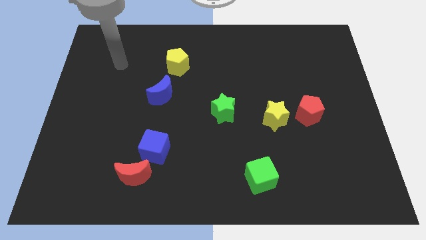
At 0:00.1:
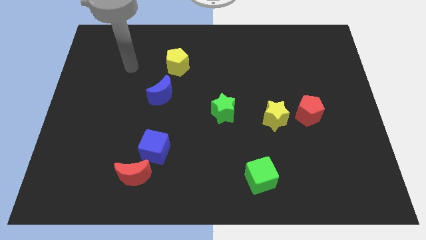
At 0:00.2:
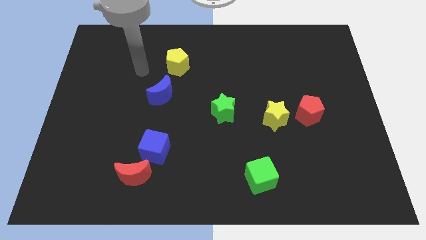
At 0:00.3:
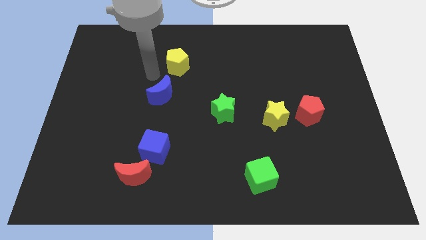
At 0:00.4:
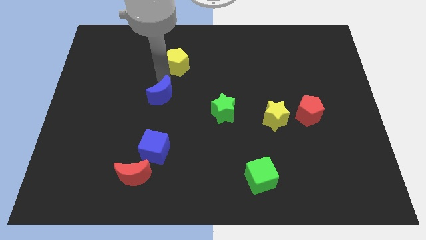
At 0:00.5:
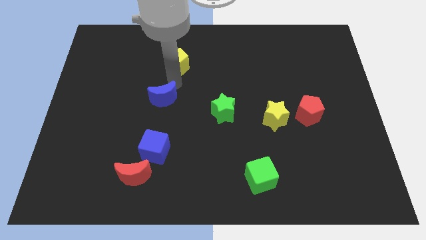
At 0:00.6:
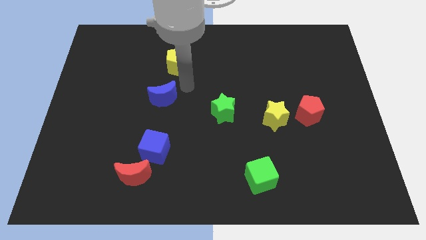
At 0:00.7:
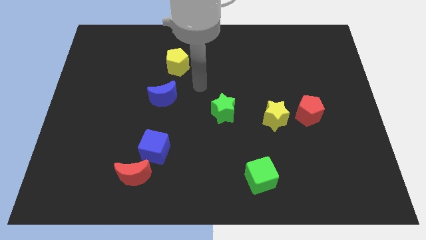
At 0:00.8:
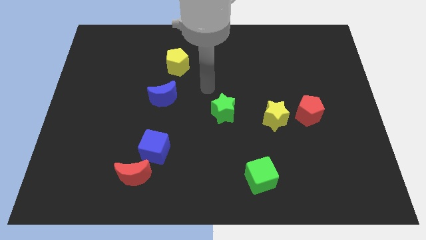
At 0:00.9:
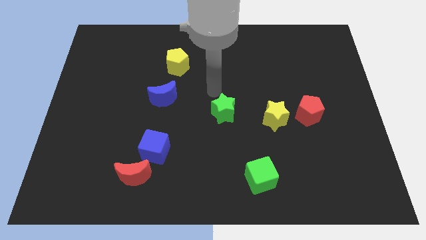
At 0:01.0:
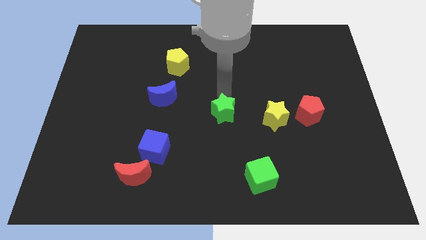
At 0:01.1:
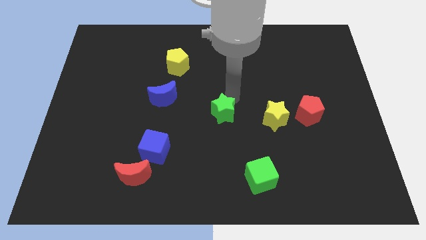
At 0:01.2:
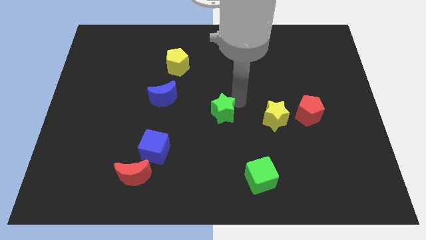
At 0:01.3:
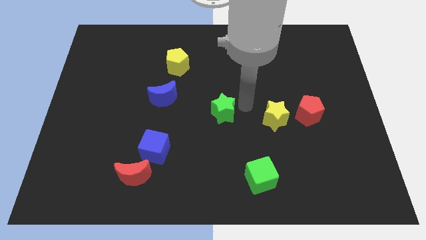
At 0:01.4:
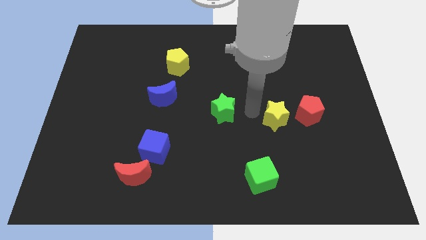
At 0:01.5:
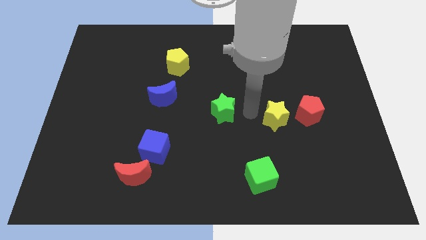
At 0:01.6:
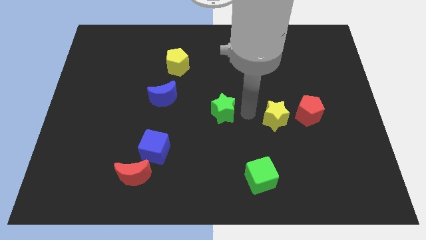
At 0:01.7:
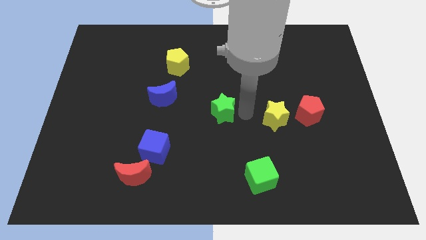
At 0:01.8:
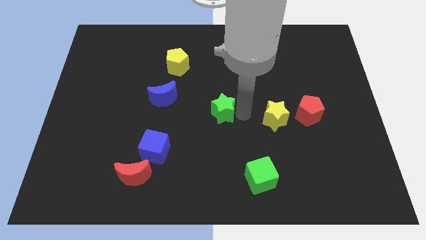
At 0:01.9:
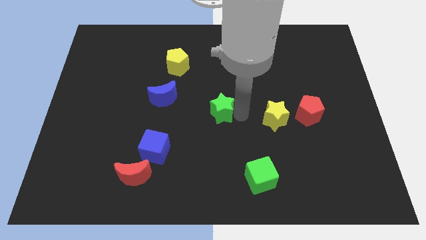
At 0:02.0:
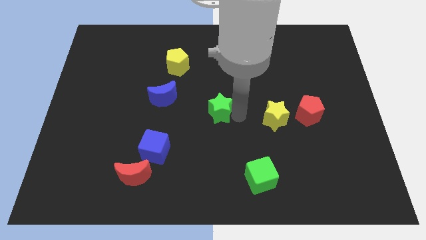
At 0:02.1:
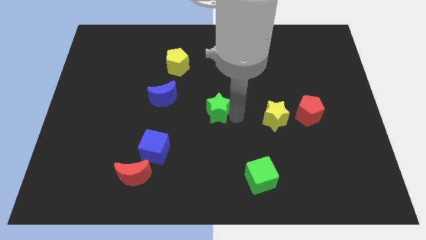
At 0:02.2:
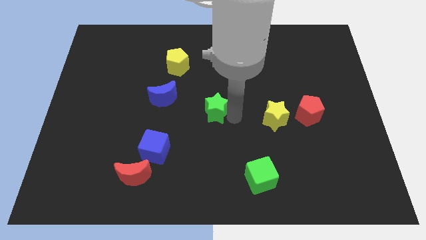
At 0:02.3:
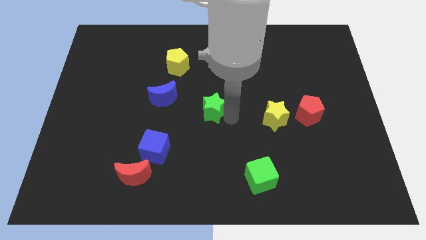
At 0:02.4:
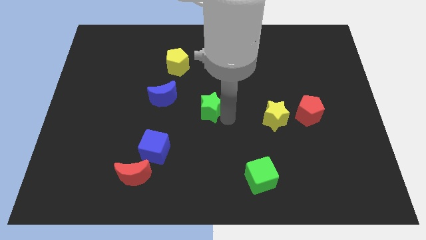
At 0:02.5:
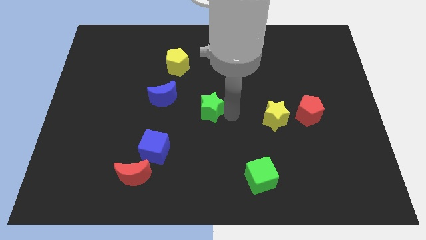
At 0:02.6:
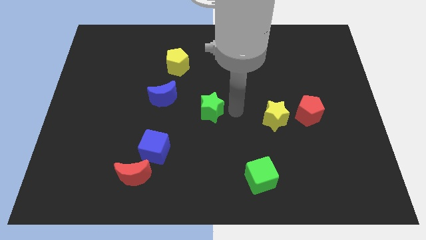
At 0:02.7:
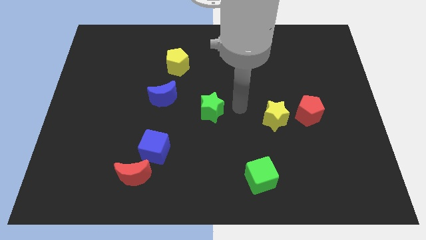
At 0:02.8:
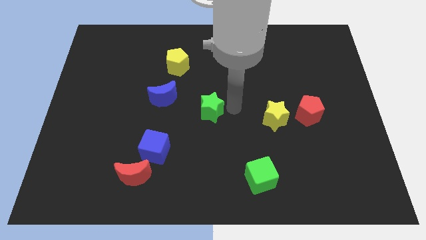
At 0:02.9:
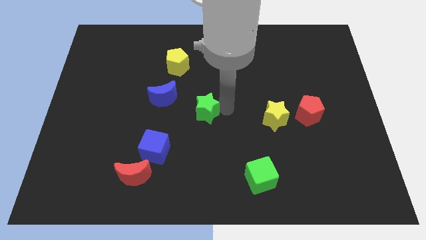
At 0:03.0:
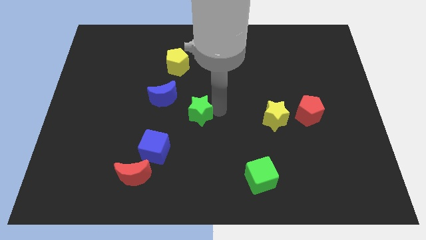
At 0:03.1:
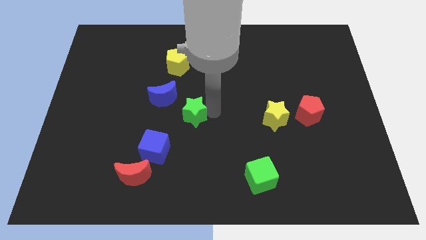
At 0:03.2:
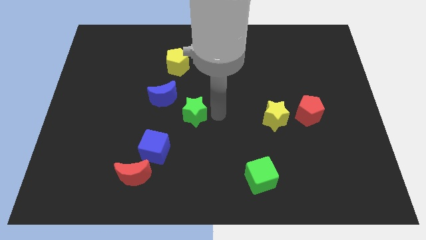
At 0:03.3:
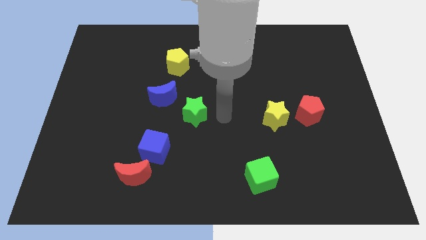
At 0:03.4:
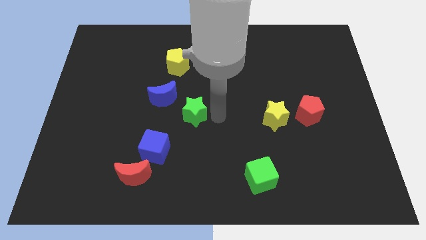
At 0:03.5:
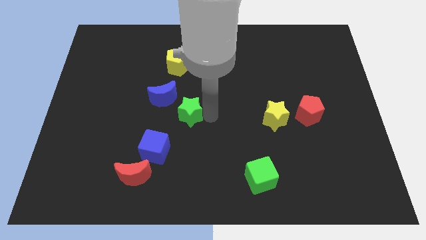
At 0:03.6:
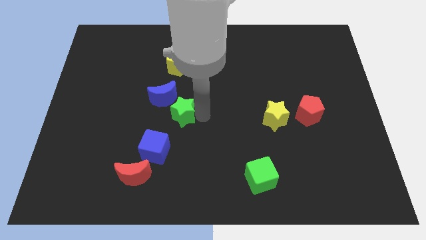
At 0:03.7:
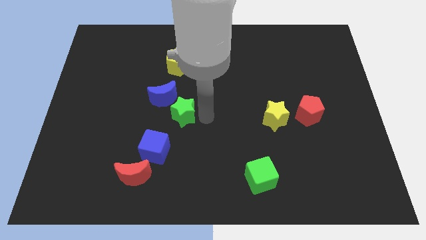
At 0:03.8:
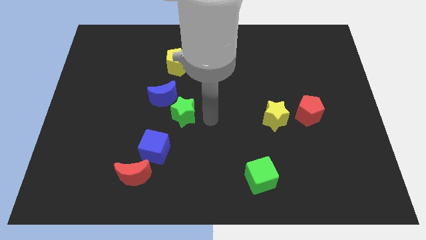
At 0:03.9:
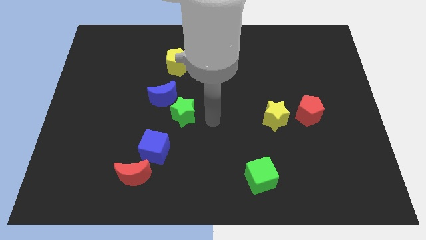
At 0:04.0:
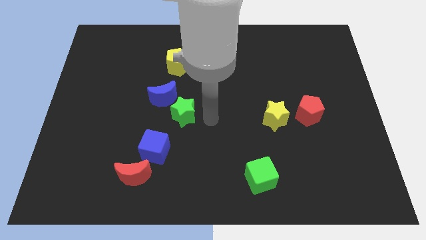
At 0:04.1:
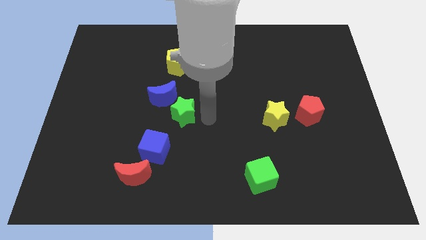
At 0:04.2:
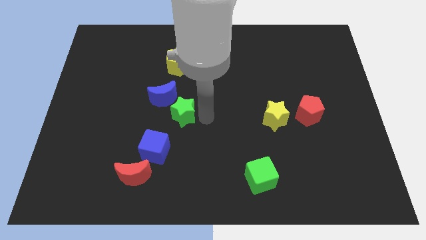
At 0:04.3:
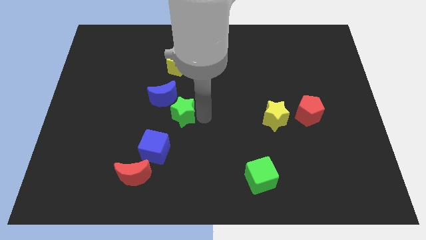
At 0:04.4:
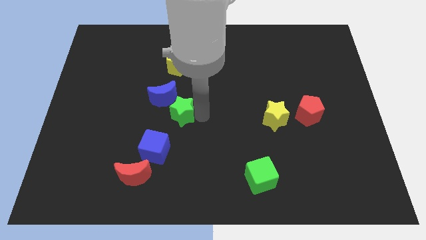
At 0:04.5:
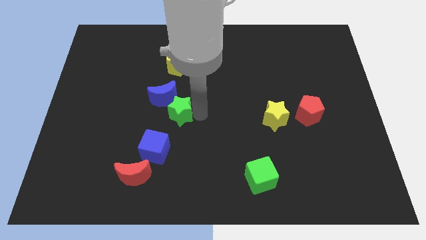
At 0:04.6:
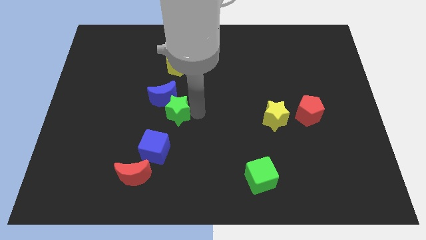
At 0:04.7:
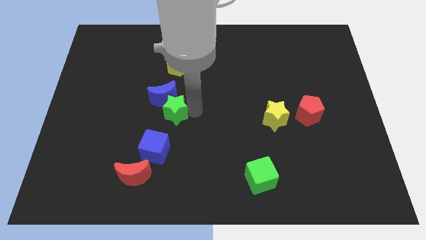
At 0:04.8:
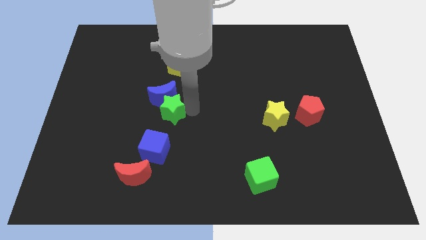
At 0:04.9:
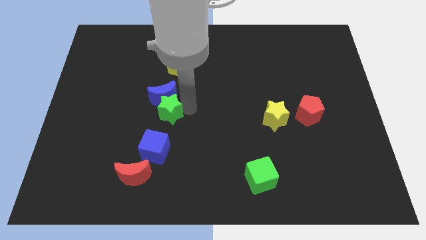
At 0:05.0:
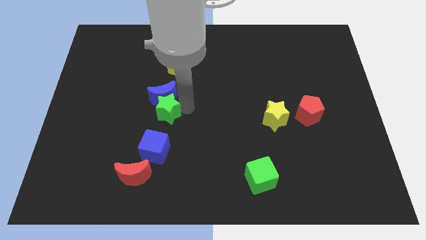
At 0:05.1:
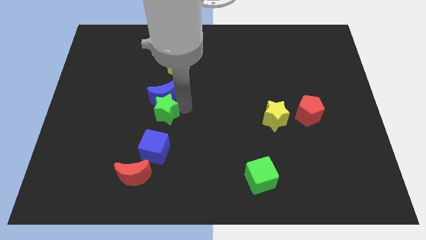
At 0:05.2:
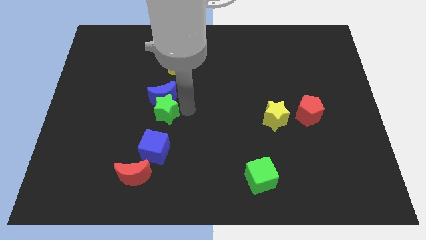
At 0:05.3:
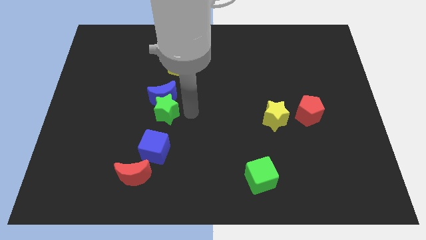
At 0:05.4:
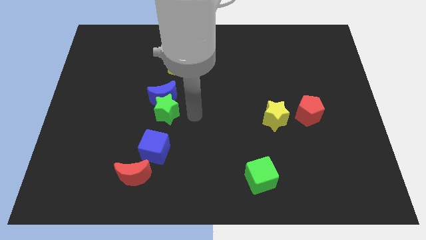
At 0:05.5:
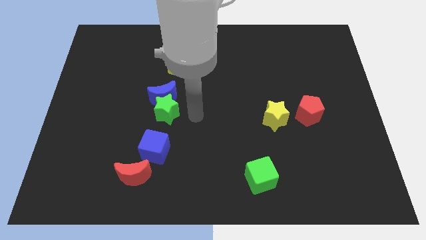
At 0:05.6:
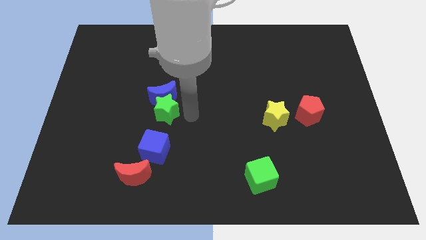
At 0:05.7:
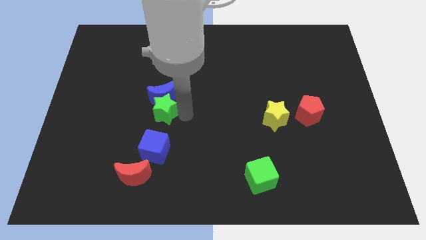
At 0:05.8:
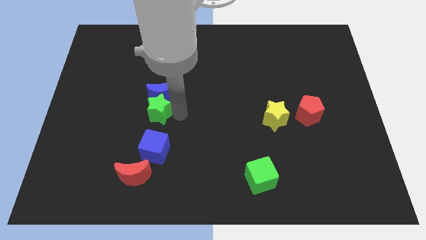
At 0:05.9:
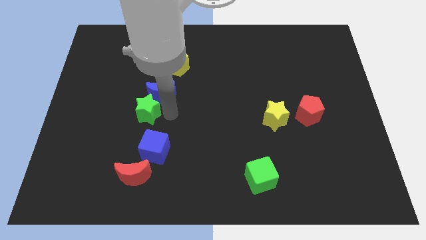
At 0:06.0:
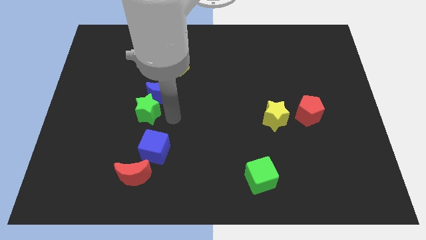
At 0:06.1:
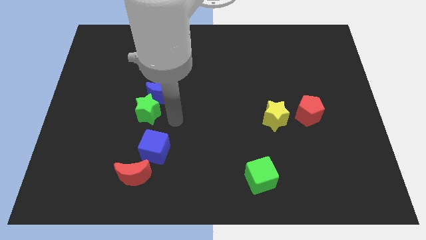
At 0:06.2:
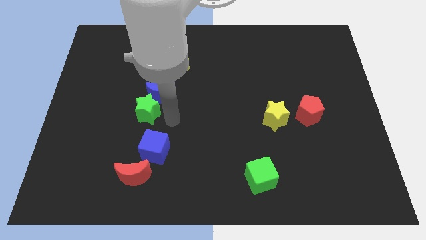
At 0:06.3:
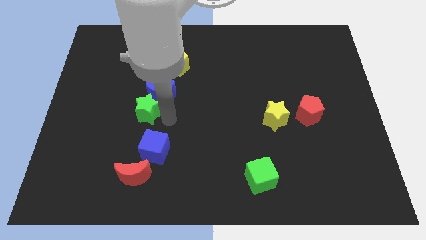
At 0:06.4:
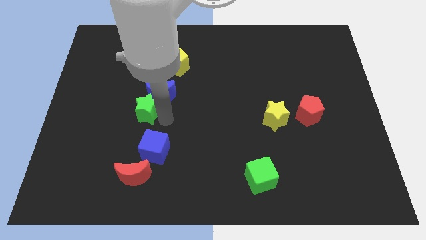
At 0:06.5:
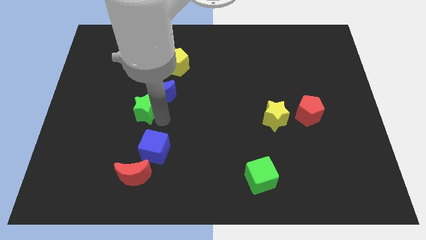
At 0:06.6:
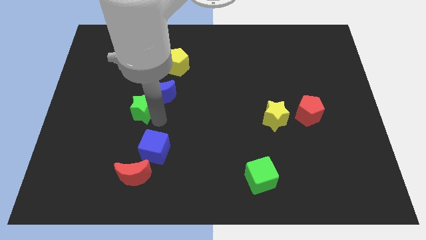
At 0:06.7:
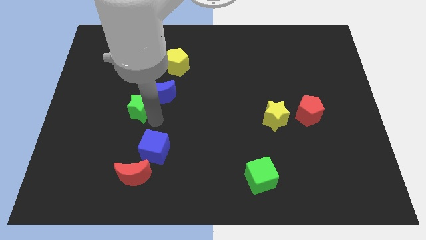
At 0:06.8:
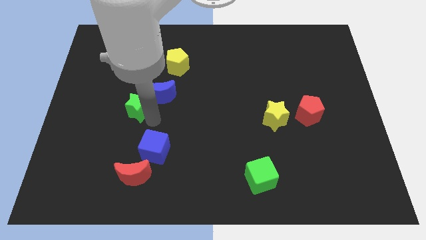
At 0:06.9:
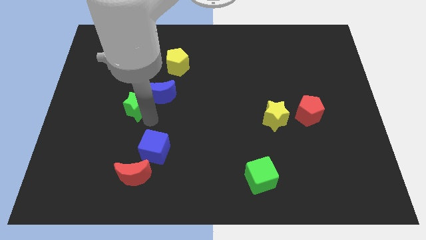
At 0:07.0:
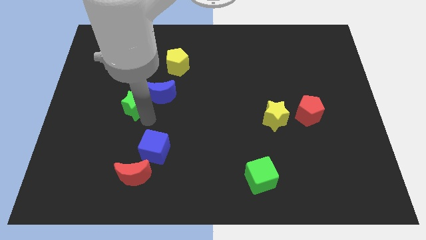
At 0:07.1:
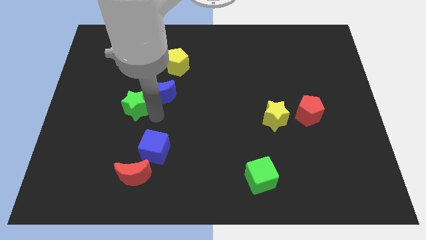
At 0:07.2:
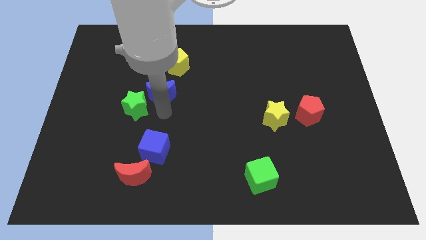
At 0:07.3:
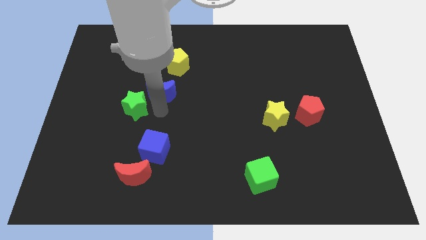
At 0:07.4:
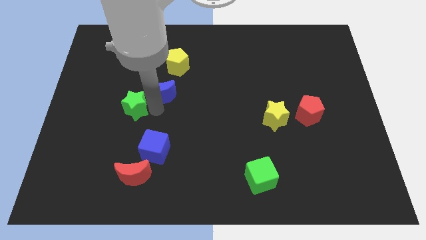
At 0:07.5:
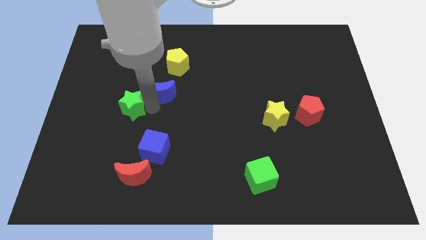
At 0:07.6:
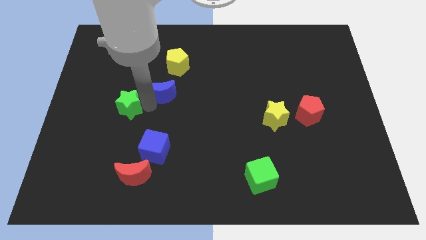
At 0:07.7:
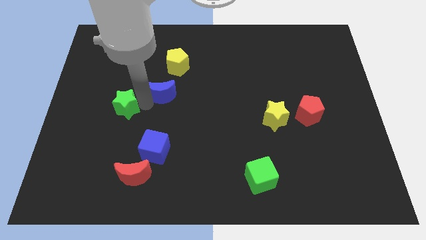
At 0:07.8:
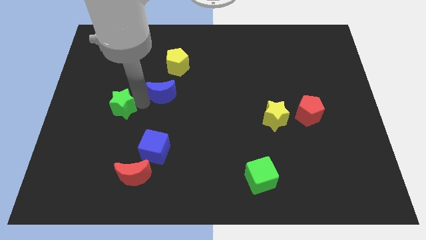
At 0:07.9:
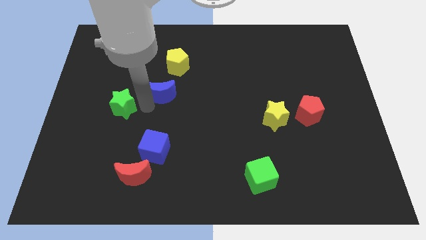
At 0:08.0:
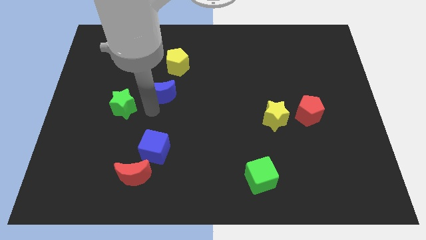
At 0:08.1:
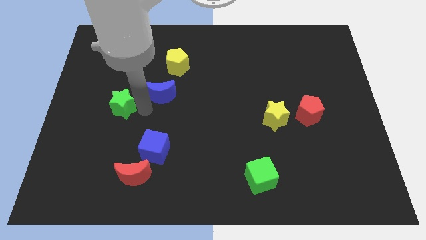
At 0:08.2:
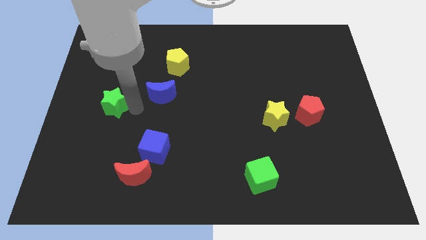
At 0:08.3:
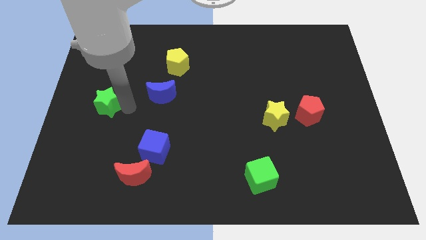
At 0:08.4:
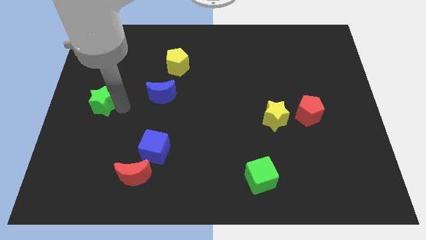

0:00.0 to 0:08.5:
slide the green star to the center left
